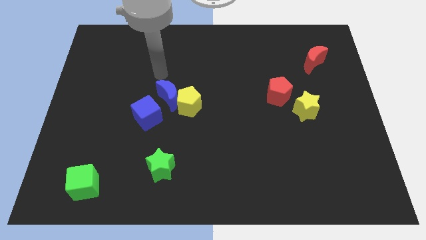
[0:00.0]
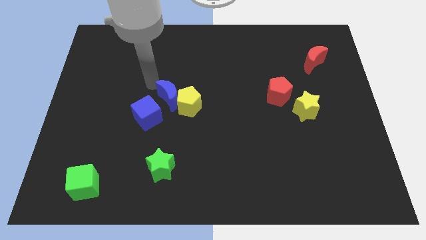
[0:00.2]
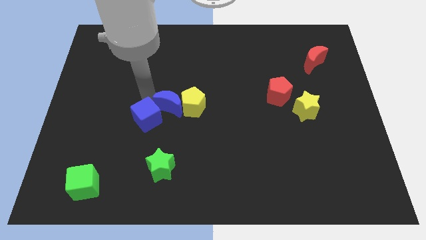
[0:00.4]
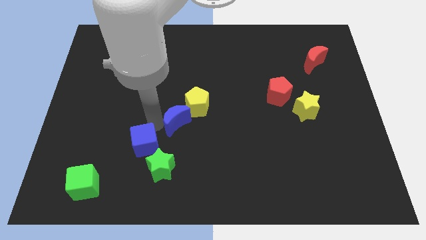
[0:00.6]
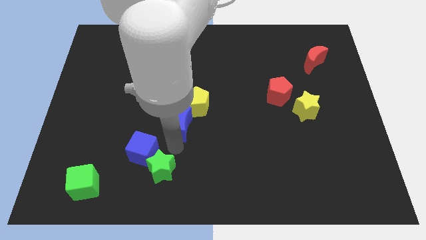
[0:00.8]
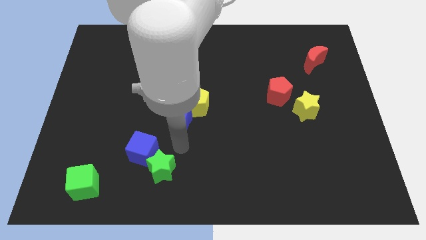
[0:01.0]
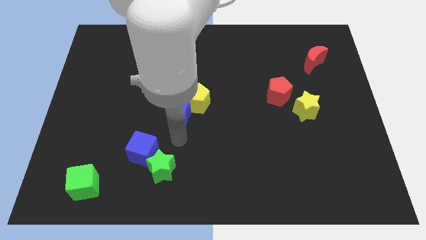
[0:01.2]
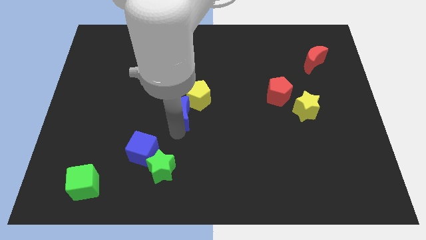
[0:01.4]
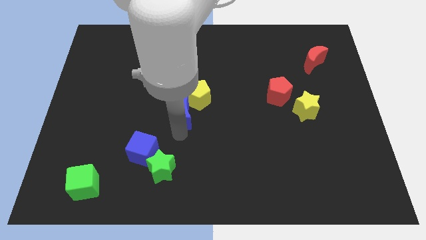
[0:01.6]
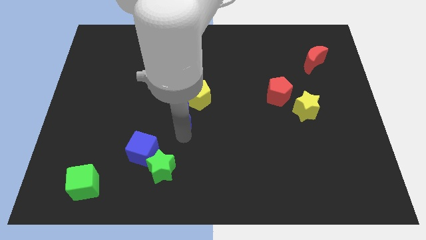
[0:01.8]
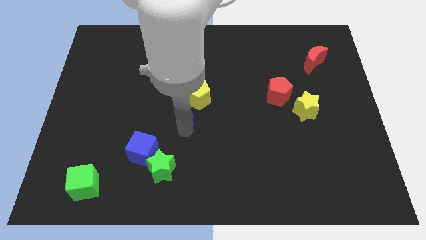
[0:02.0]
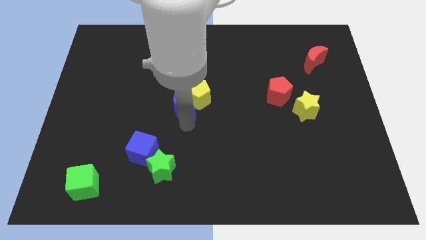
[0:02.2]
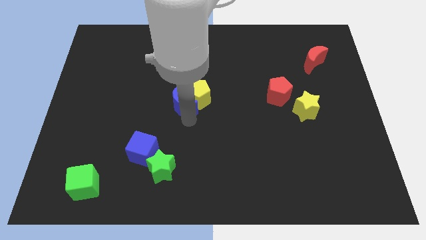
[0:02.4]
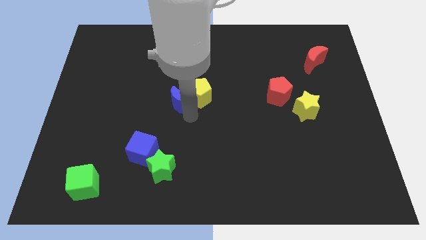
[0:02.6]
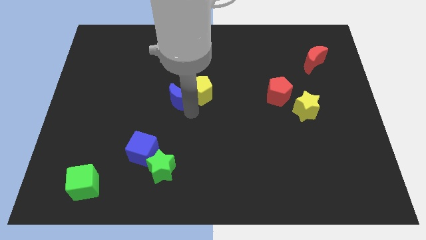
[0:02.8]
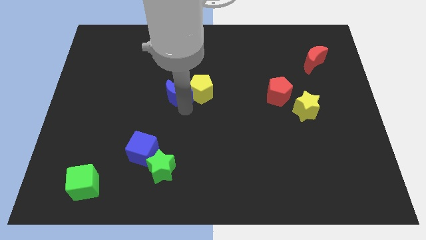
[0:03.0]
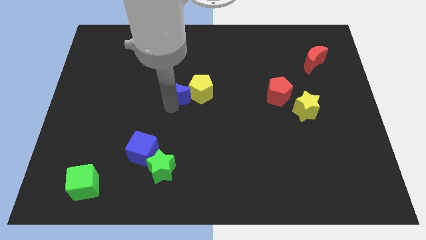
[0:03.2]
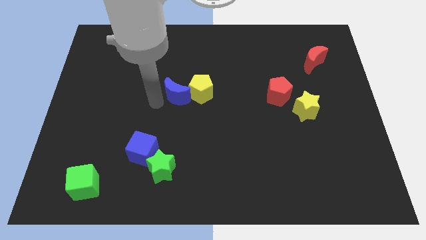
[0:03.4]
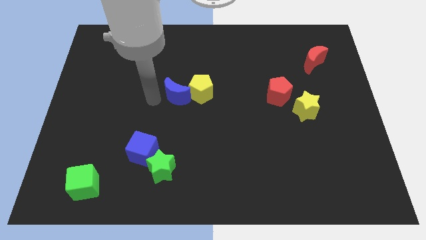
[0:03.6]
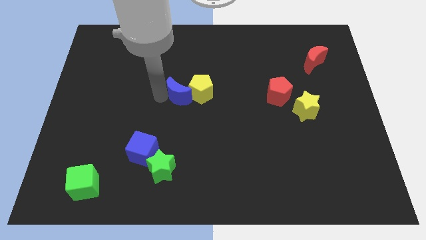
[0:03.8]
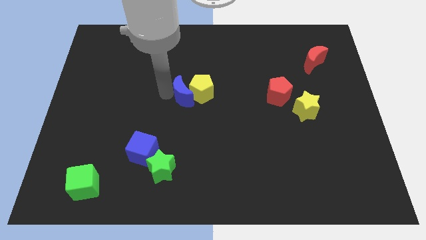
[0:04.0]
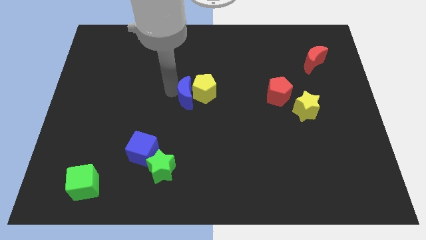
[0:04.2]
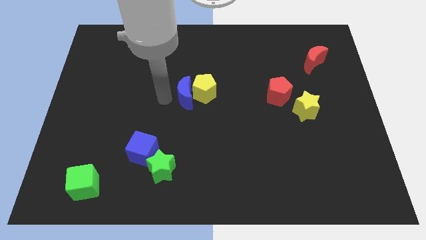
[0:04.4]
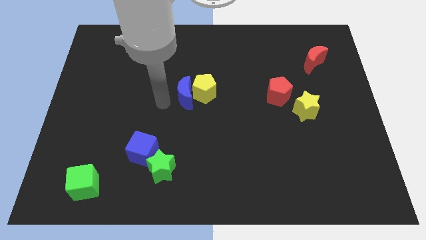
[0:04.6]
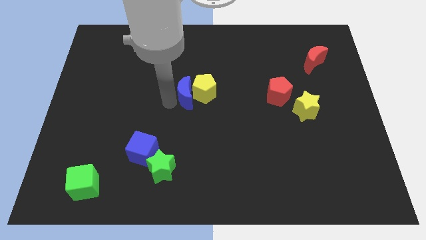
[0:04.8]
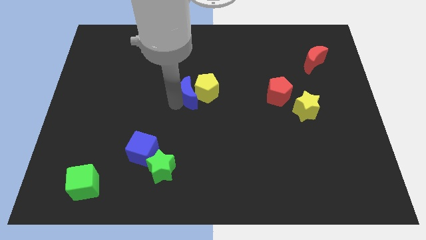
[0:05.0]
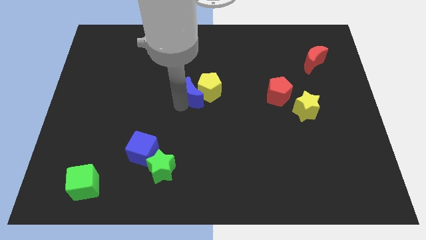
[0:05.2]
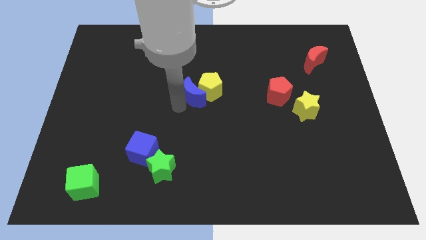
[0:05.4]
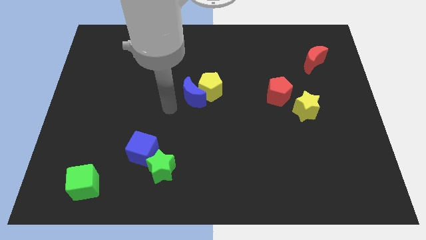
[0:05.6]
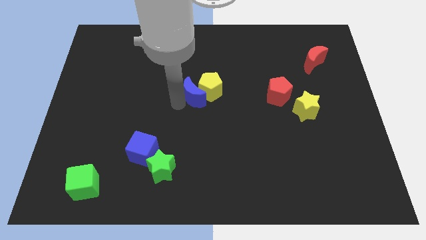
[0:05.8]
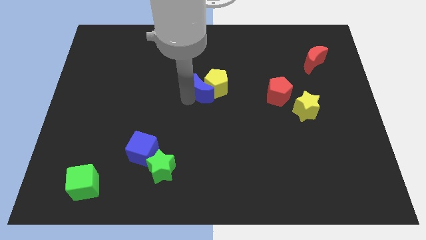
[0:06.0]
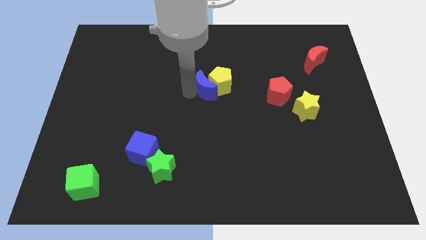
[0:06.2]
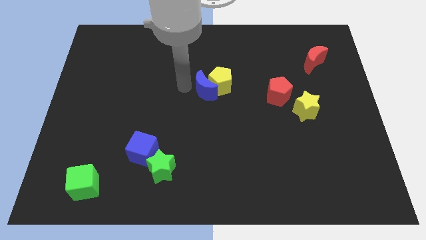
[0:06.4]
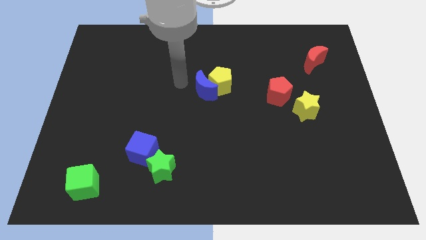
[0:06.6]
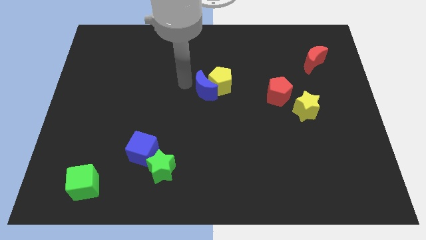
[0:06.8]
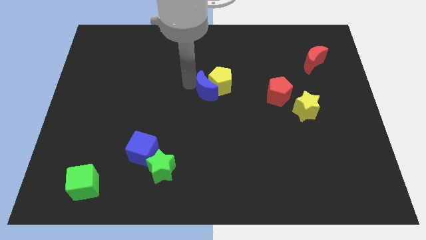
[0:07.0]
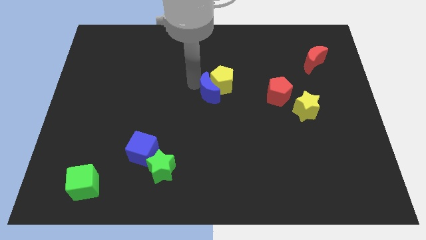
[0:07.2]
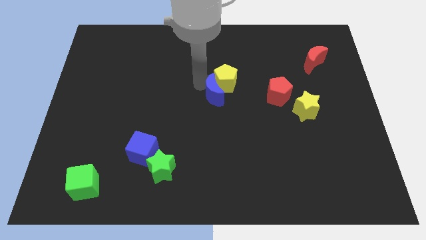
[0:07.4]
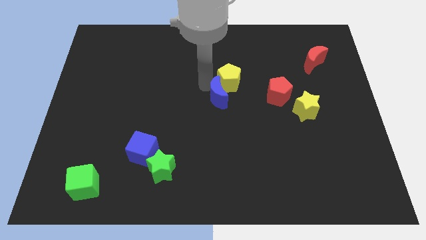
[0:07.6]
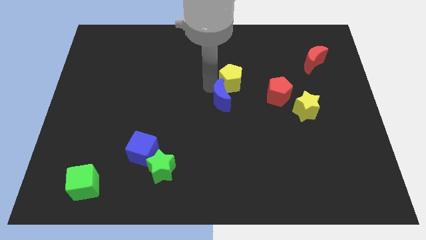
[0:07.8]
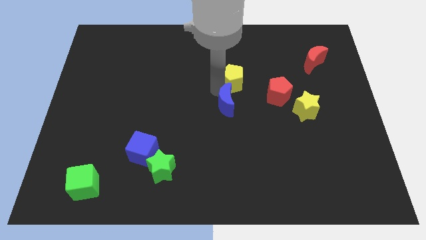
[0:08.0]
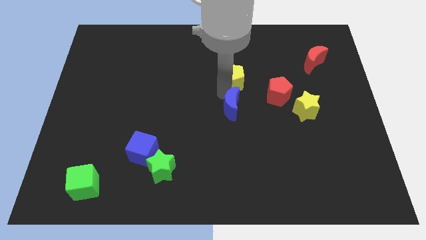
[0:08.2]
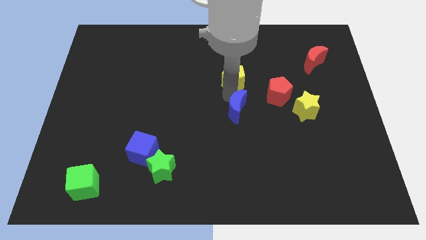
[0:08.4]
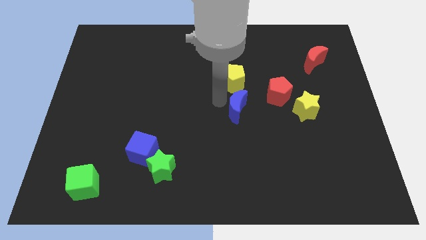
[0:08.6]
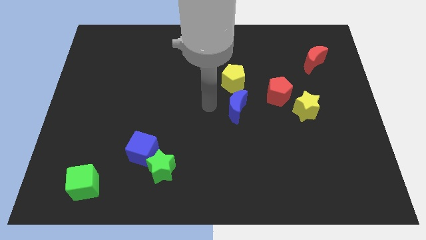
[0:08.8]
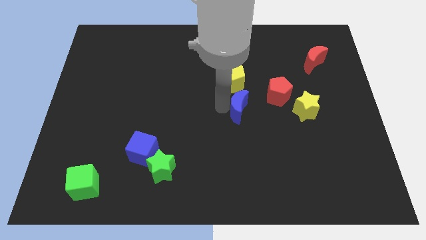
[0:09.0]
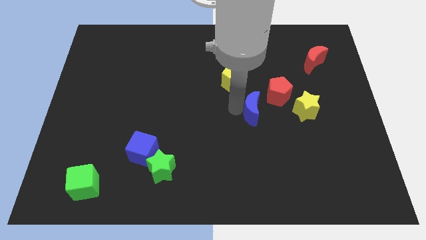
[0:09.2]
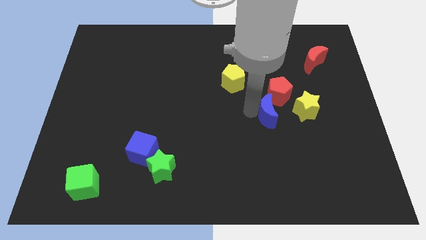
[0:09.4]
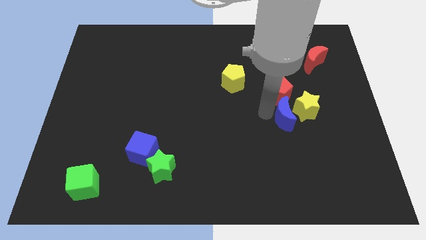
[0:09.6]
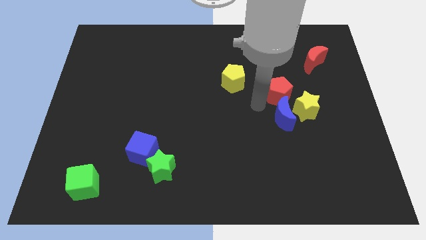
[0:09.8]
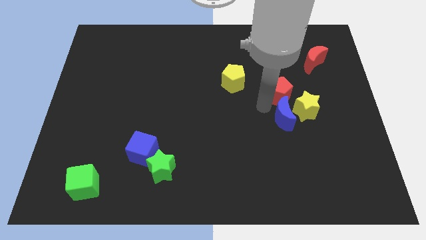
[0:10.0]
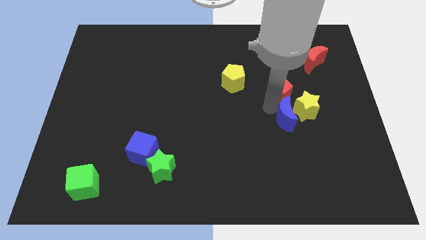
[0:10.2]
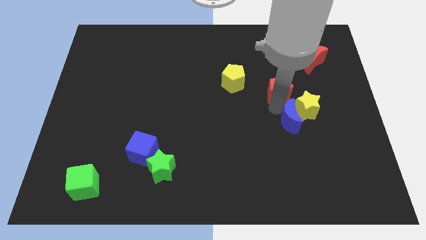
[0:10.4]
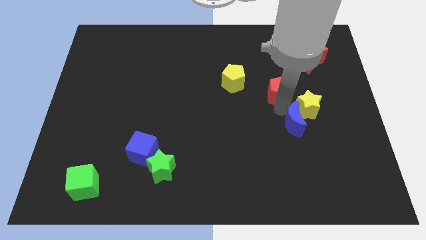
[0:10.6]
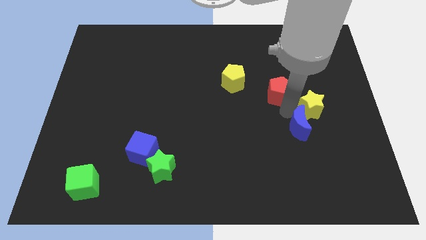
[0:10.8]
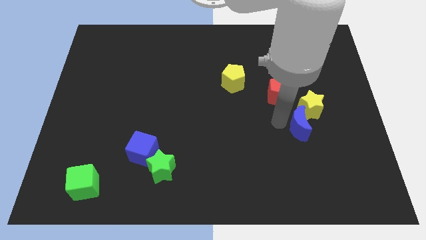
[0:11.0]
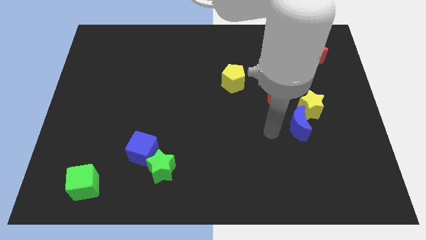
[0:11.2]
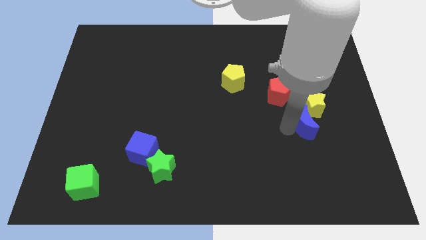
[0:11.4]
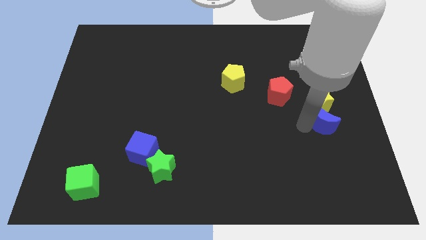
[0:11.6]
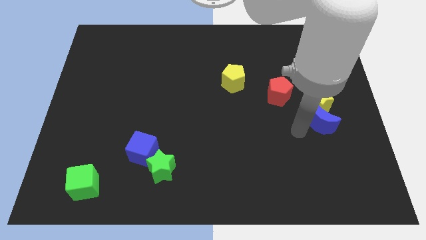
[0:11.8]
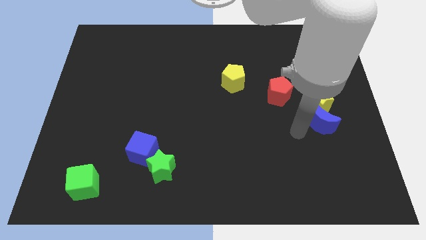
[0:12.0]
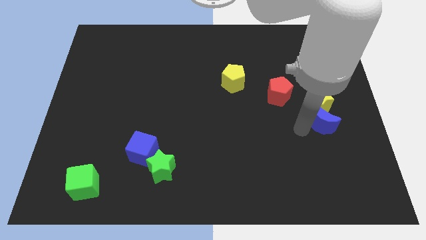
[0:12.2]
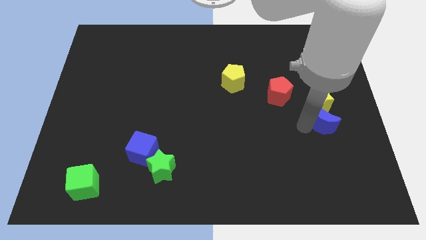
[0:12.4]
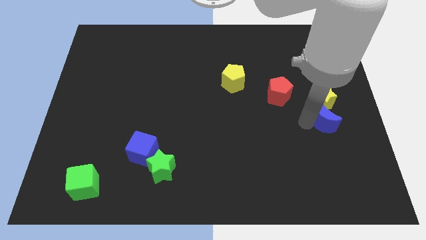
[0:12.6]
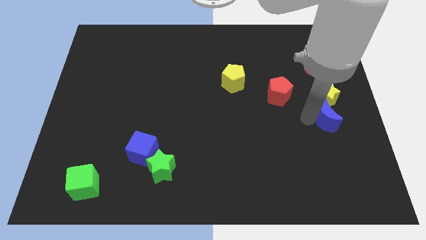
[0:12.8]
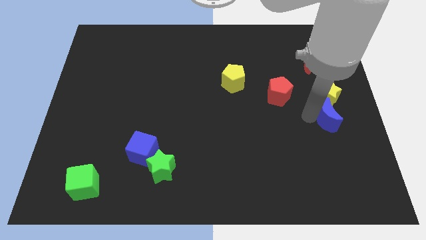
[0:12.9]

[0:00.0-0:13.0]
put the blue moon to the right side

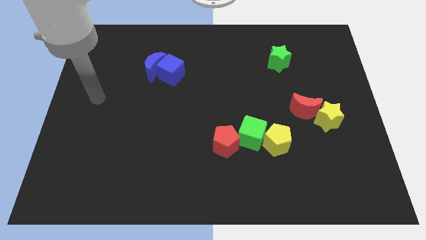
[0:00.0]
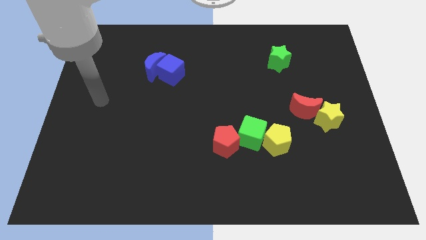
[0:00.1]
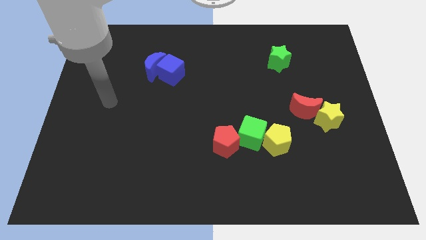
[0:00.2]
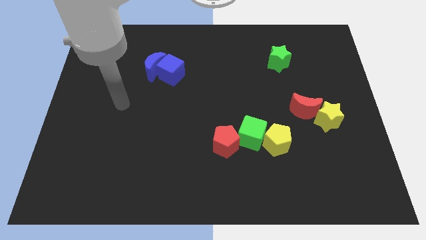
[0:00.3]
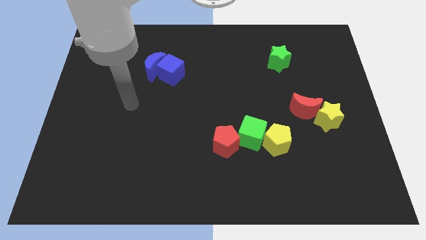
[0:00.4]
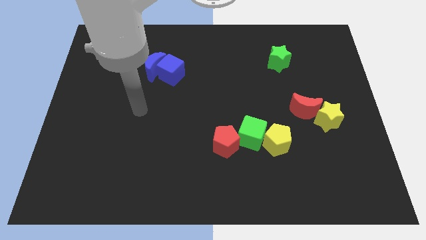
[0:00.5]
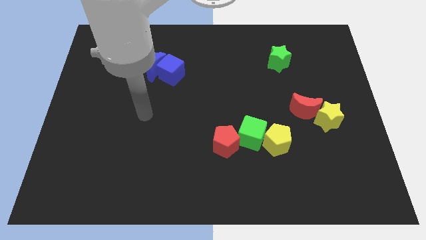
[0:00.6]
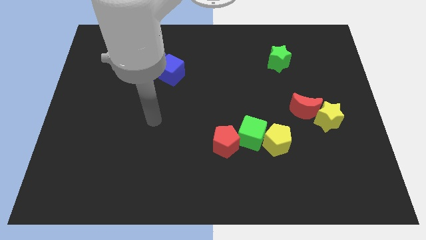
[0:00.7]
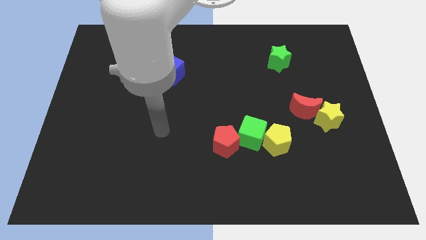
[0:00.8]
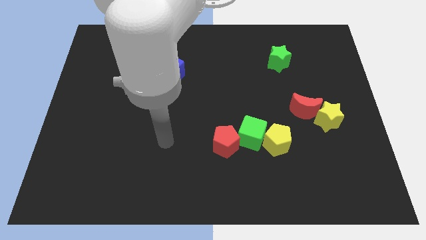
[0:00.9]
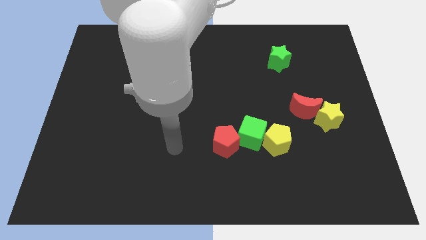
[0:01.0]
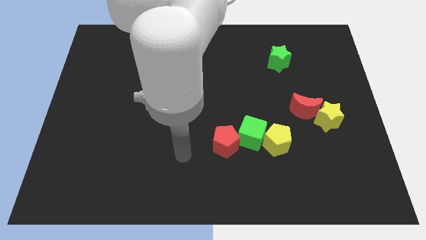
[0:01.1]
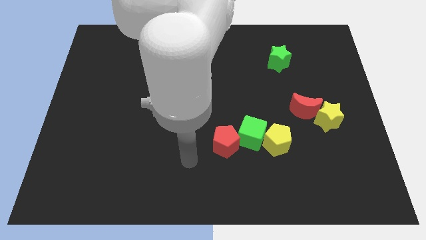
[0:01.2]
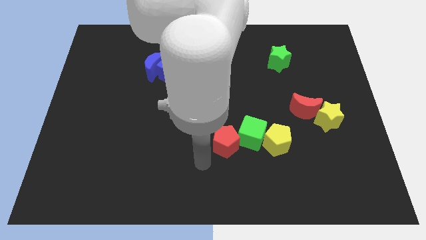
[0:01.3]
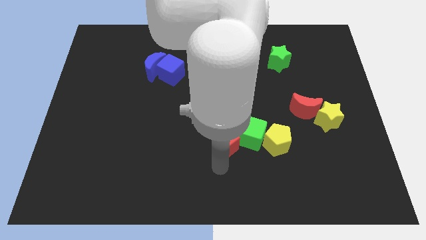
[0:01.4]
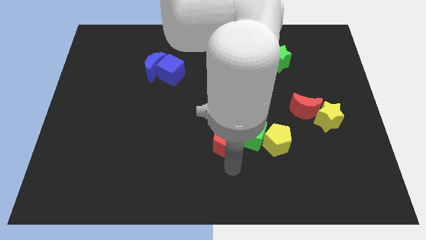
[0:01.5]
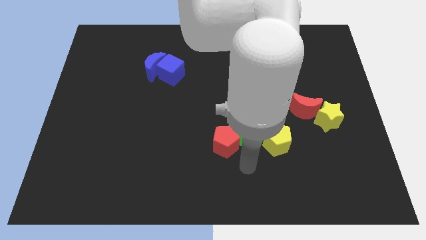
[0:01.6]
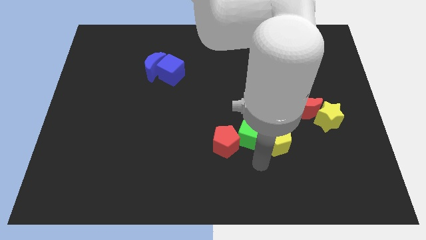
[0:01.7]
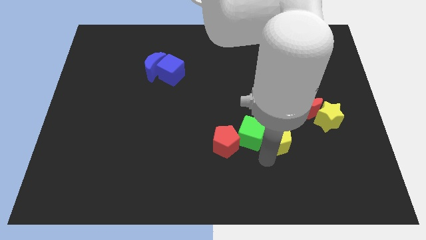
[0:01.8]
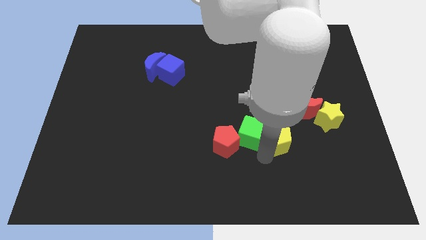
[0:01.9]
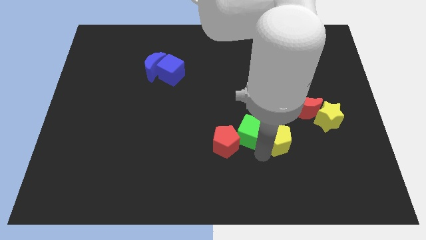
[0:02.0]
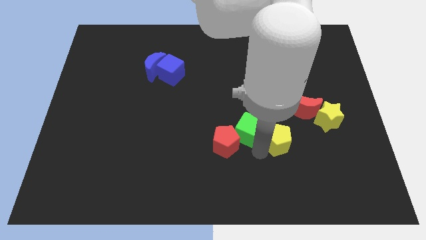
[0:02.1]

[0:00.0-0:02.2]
put the green cube to the middle
